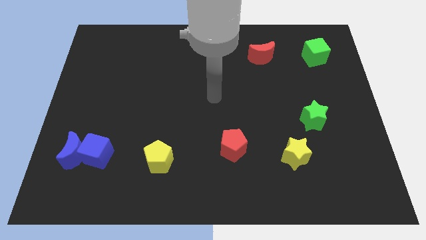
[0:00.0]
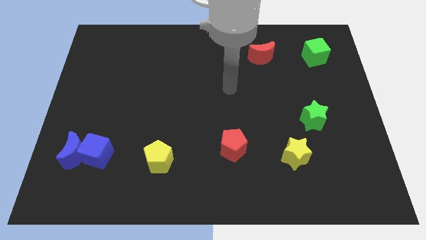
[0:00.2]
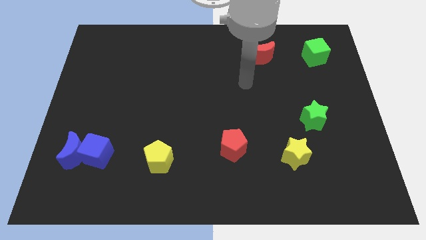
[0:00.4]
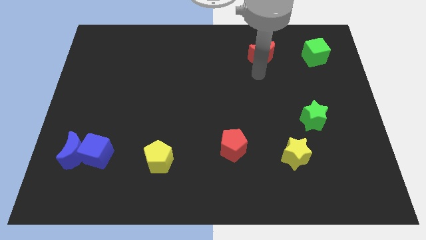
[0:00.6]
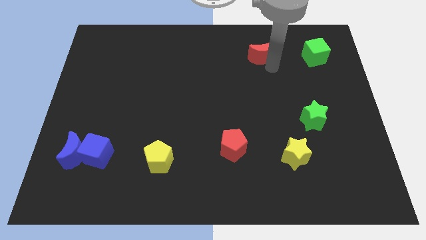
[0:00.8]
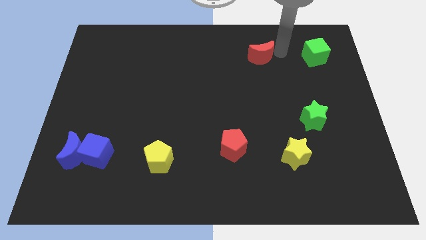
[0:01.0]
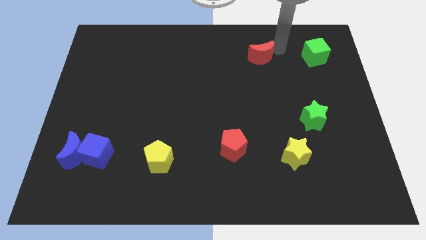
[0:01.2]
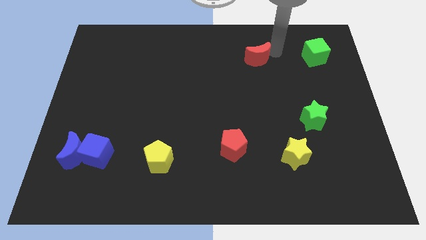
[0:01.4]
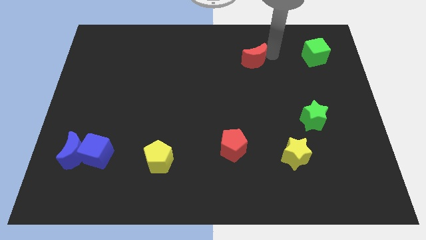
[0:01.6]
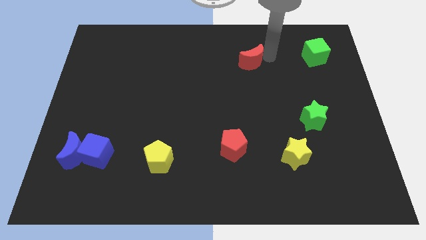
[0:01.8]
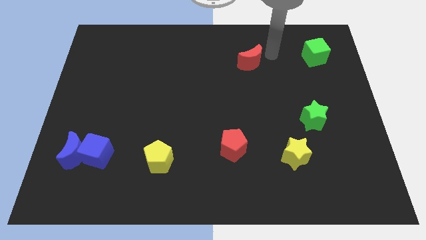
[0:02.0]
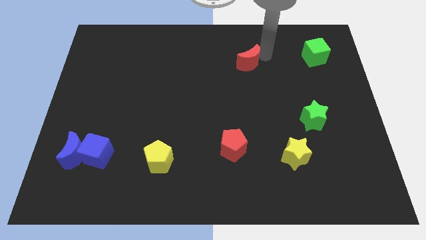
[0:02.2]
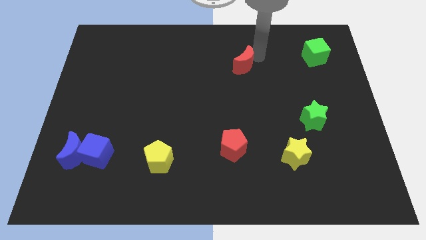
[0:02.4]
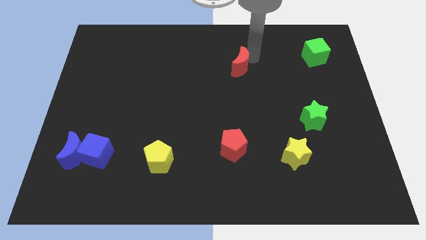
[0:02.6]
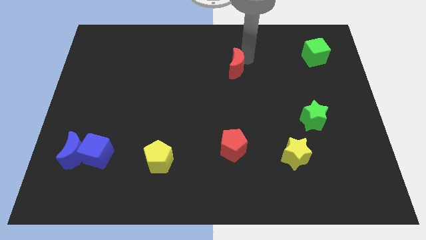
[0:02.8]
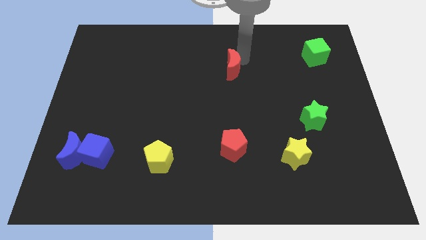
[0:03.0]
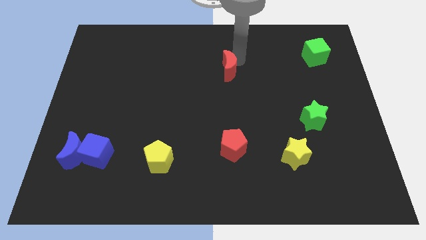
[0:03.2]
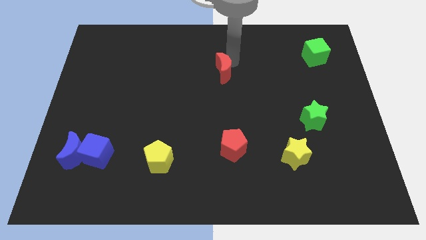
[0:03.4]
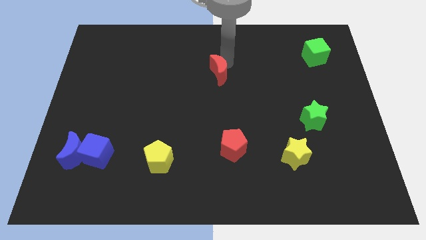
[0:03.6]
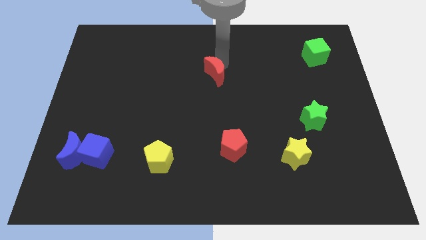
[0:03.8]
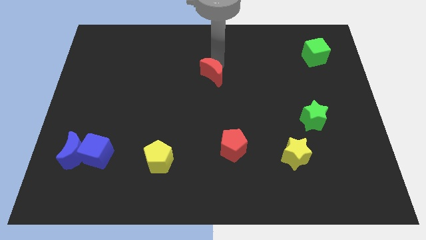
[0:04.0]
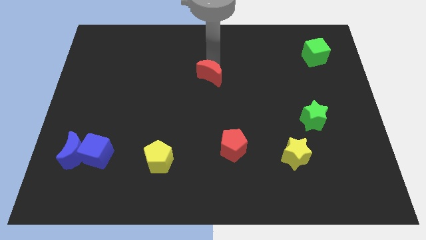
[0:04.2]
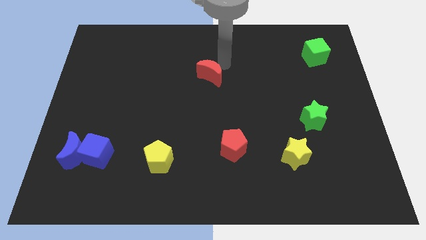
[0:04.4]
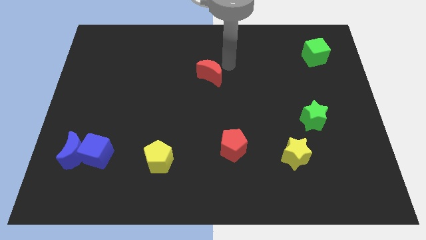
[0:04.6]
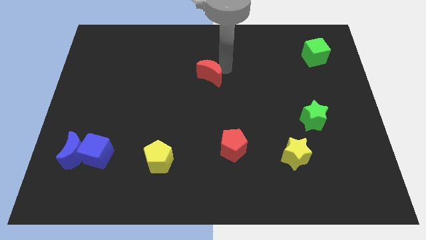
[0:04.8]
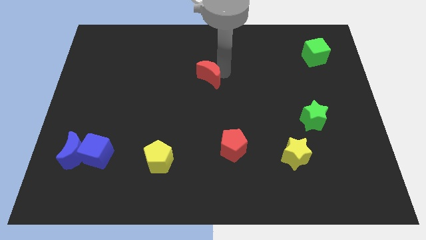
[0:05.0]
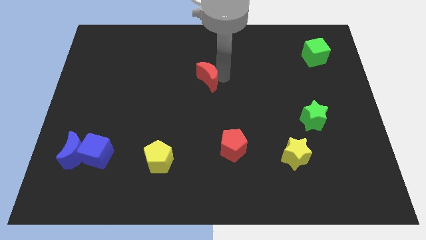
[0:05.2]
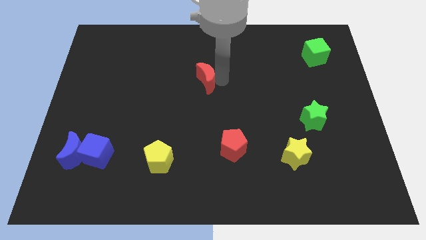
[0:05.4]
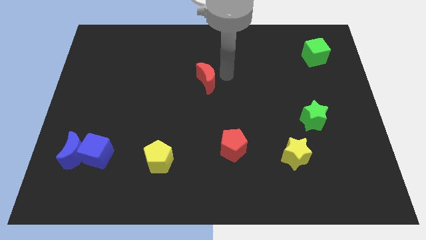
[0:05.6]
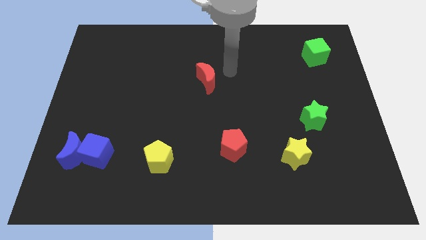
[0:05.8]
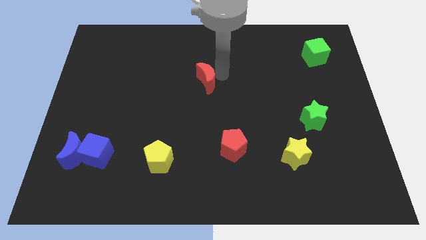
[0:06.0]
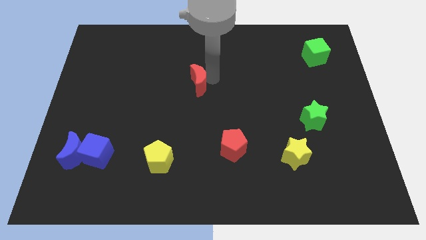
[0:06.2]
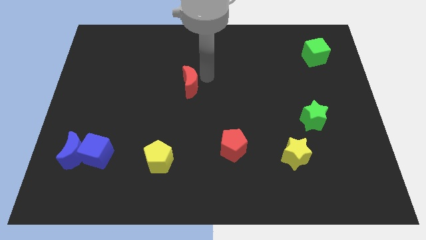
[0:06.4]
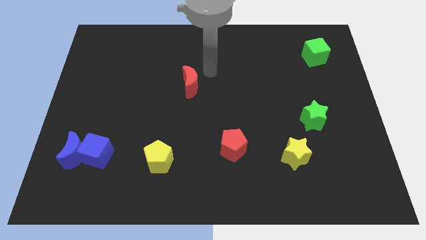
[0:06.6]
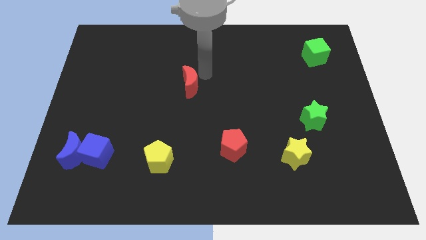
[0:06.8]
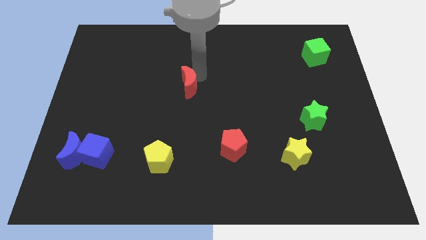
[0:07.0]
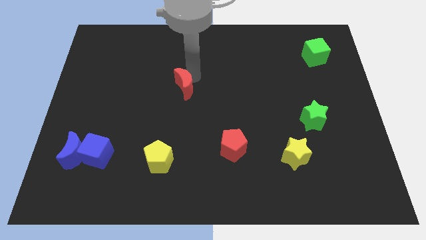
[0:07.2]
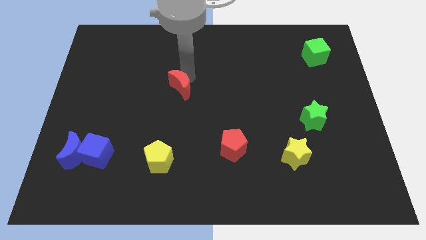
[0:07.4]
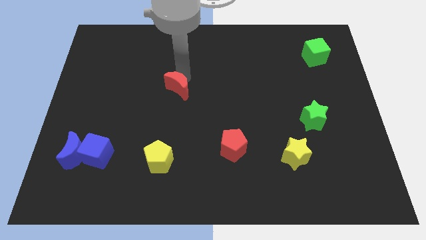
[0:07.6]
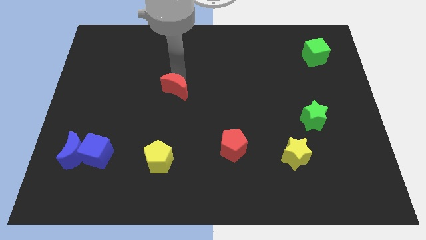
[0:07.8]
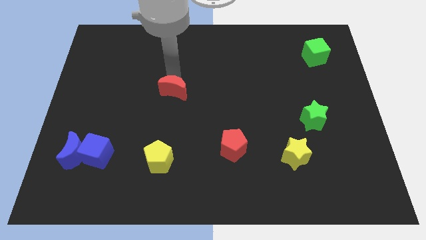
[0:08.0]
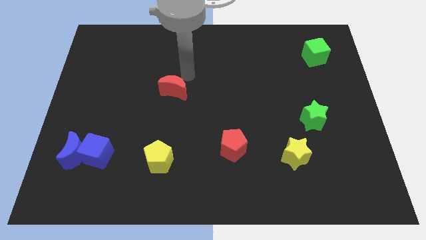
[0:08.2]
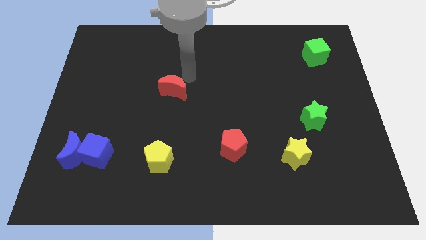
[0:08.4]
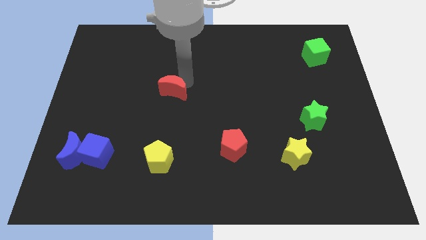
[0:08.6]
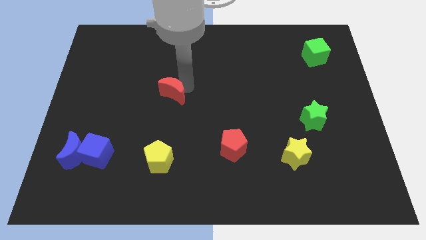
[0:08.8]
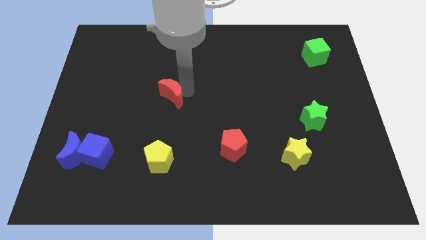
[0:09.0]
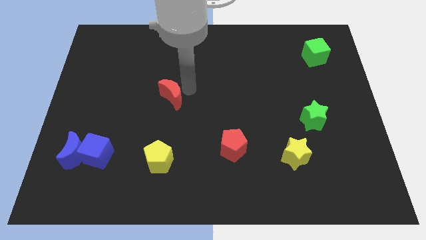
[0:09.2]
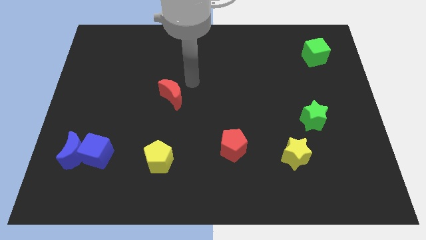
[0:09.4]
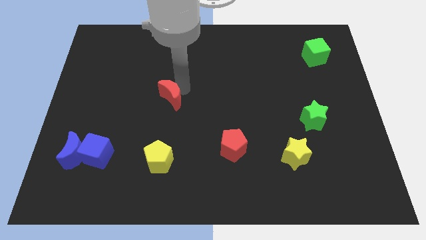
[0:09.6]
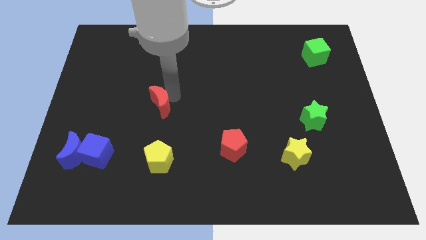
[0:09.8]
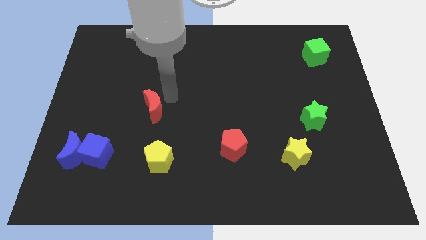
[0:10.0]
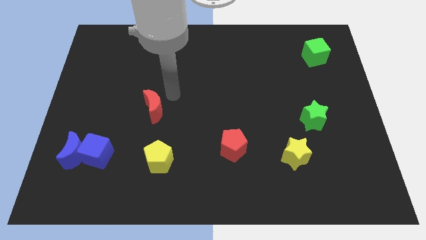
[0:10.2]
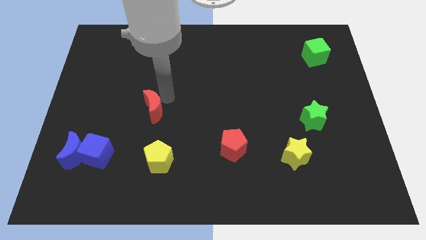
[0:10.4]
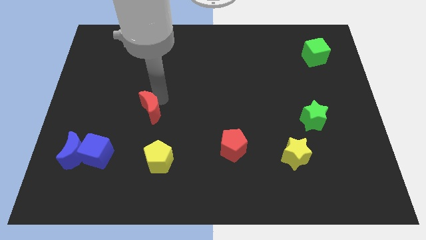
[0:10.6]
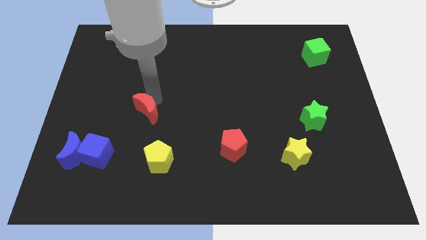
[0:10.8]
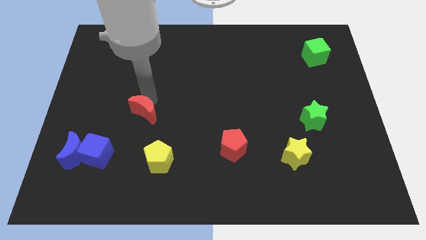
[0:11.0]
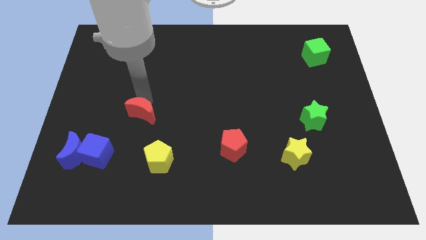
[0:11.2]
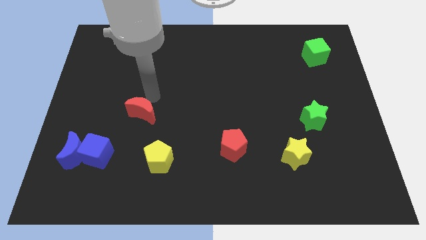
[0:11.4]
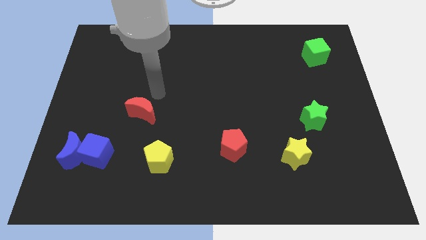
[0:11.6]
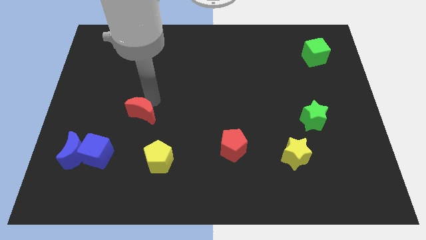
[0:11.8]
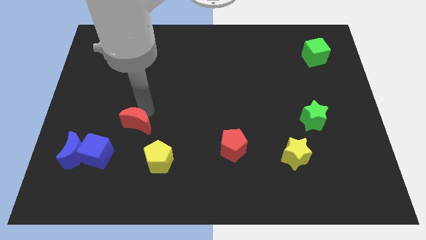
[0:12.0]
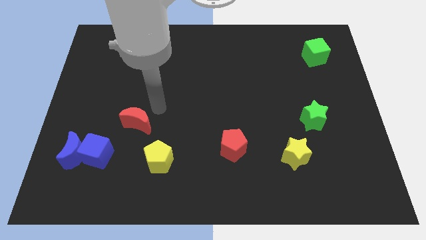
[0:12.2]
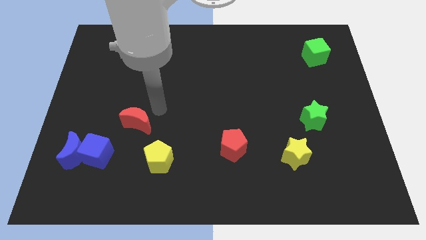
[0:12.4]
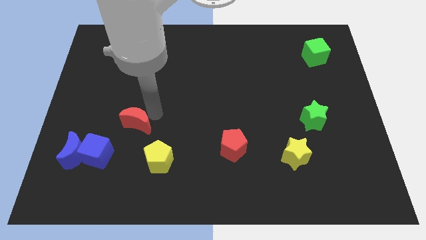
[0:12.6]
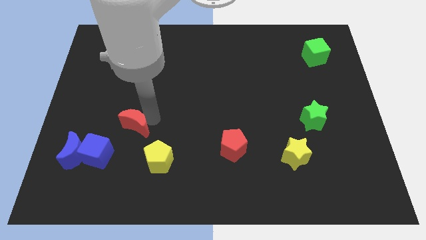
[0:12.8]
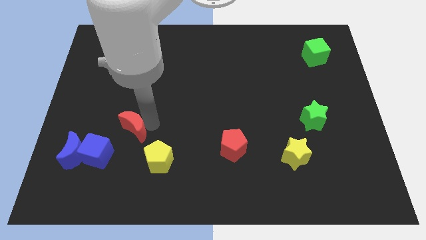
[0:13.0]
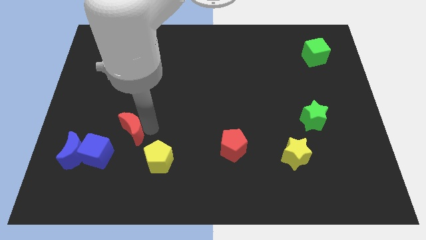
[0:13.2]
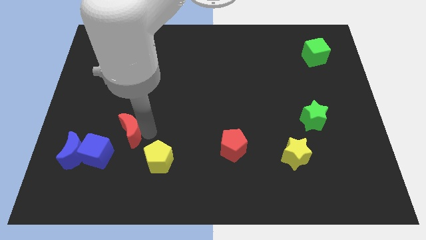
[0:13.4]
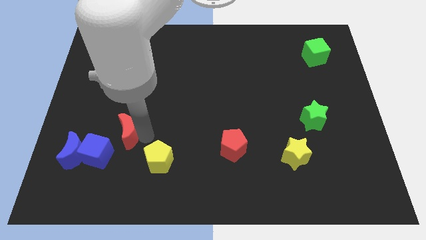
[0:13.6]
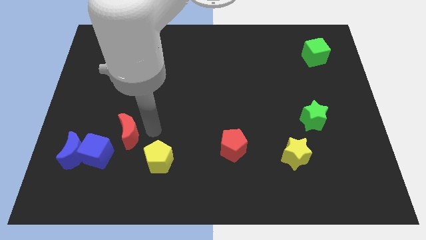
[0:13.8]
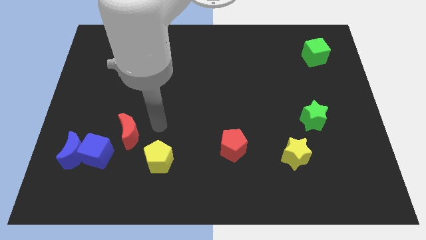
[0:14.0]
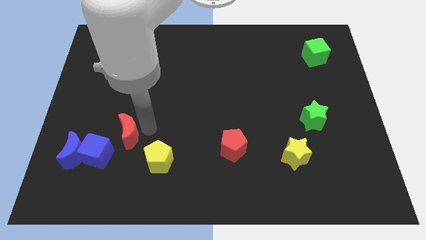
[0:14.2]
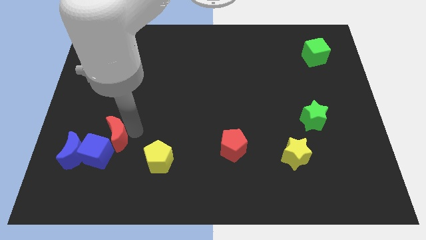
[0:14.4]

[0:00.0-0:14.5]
put the red moon close to the blue cube

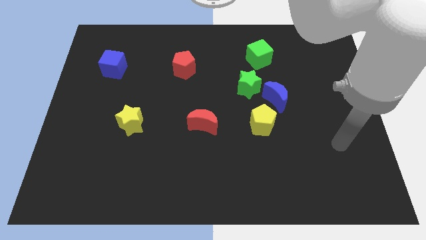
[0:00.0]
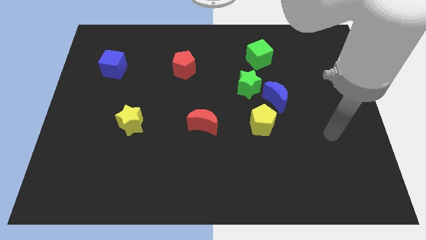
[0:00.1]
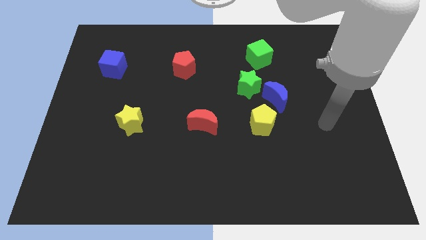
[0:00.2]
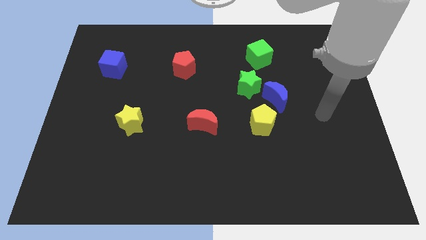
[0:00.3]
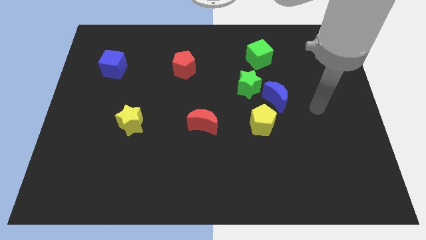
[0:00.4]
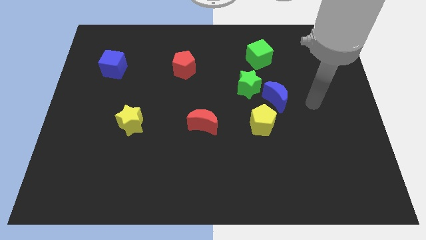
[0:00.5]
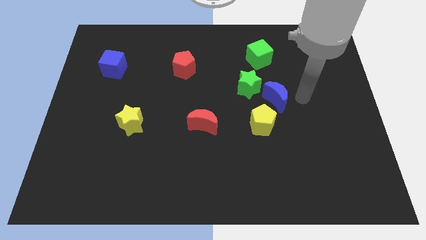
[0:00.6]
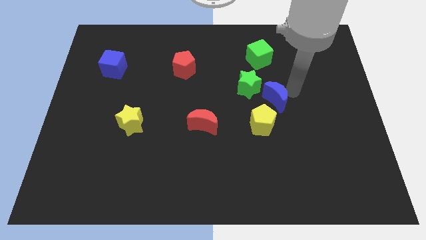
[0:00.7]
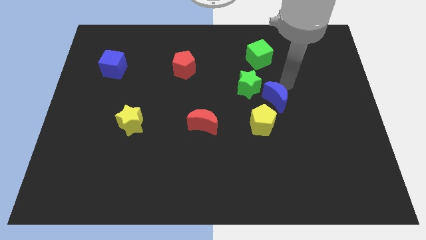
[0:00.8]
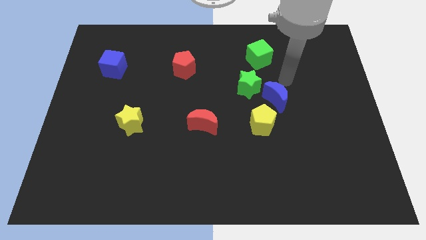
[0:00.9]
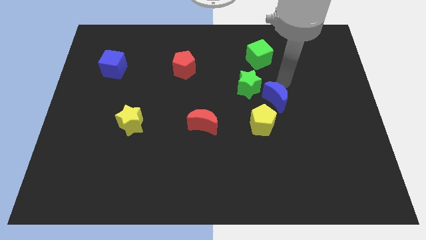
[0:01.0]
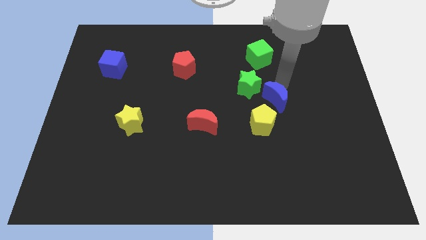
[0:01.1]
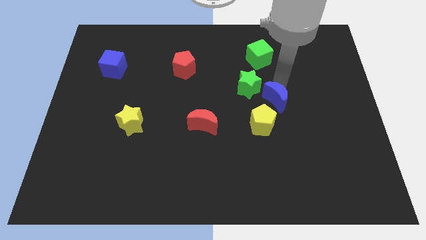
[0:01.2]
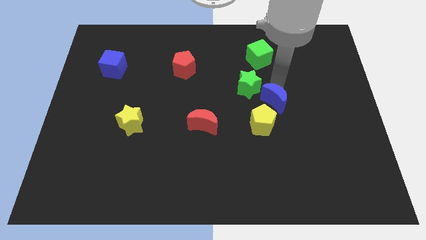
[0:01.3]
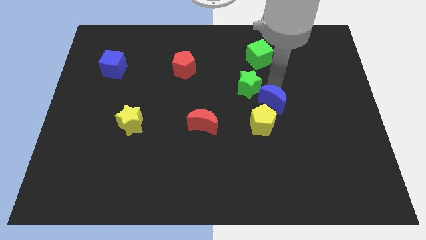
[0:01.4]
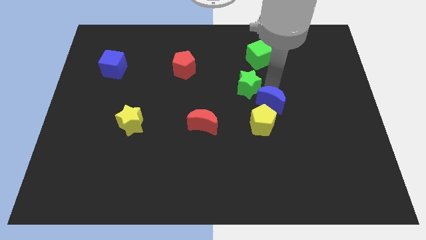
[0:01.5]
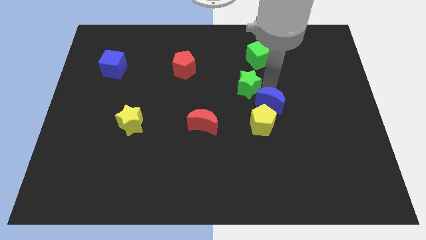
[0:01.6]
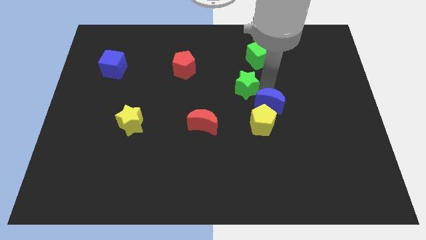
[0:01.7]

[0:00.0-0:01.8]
put the blue moon towards the yellow pentagon
